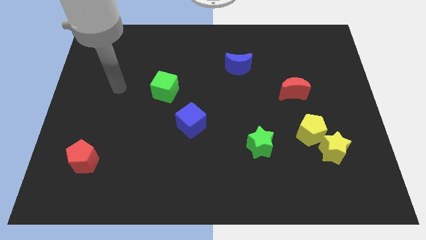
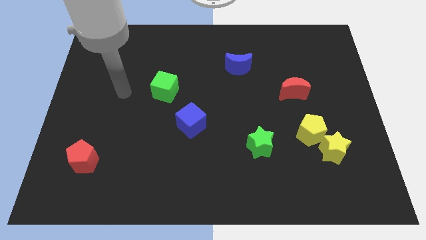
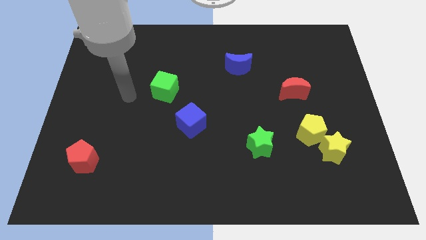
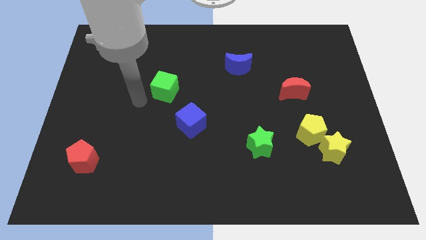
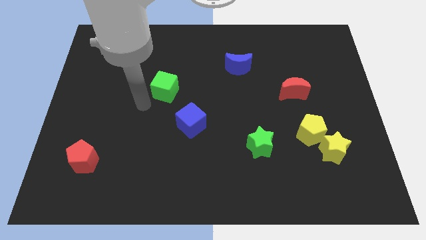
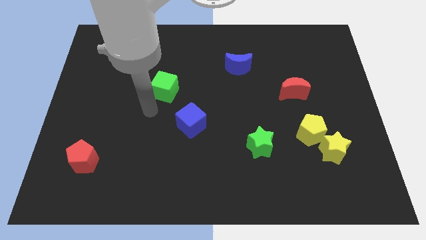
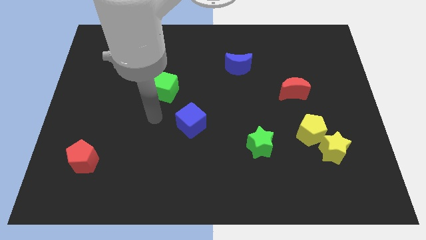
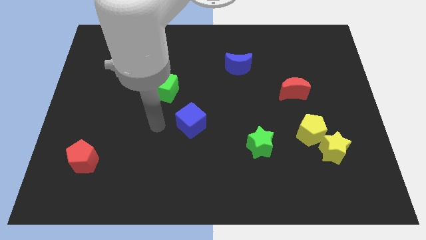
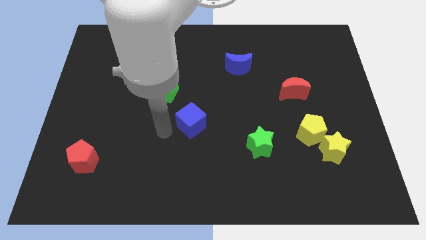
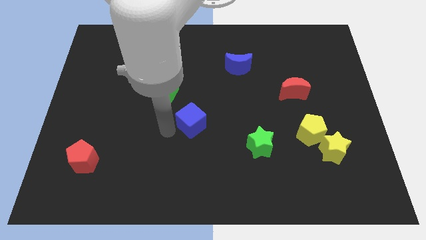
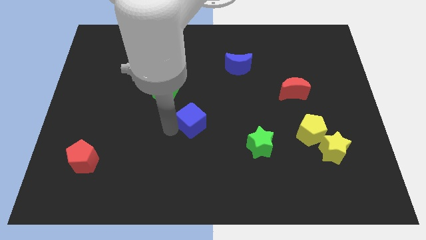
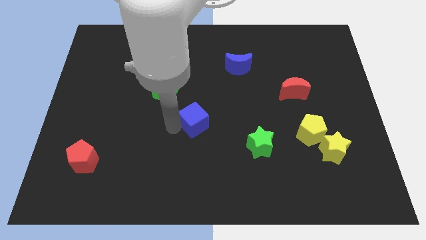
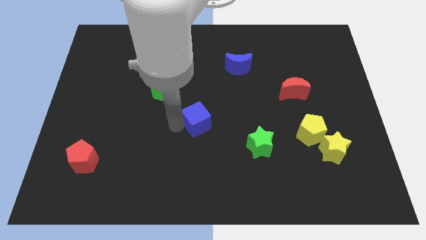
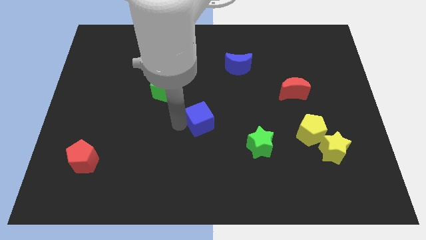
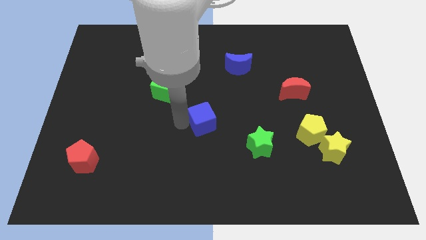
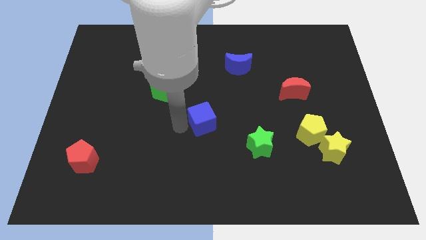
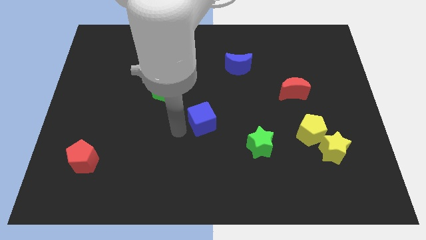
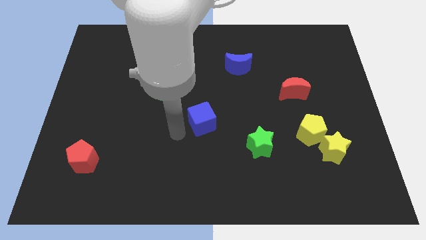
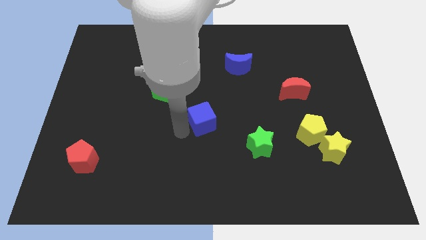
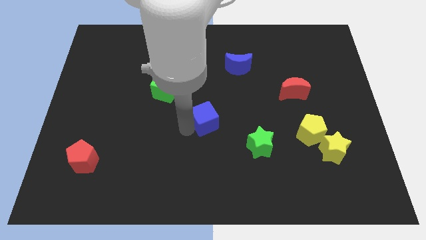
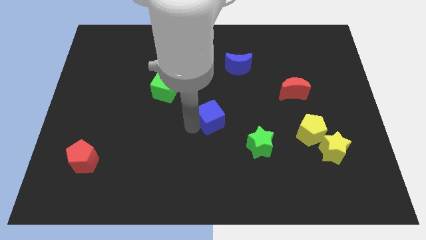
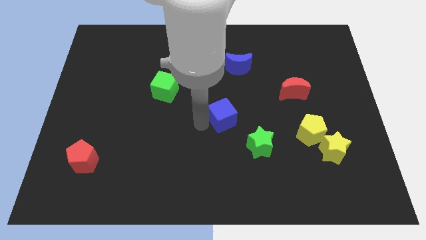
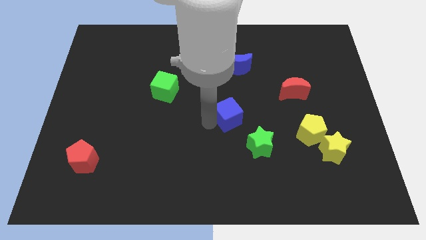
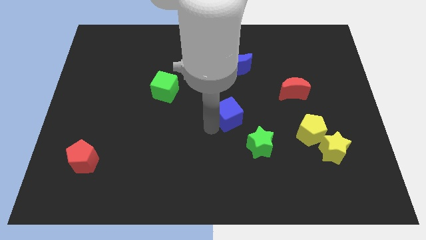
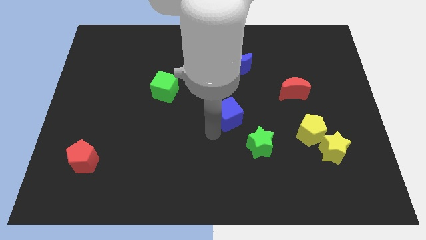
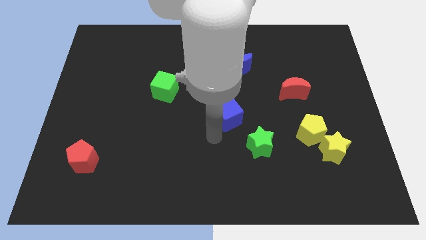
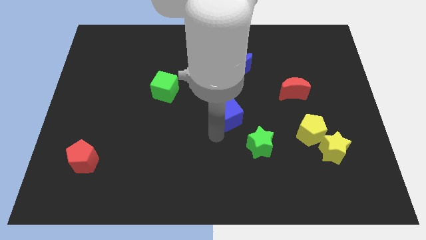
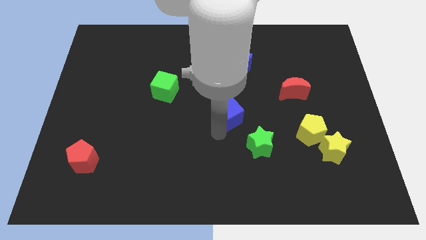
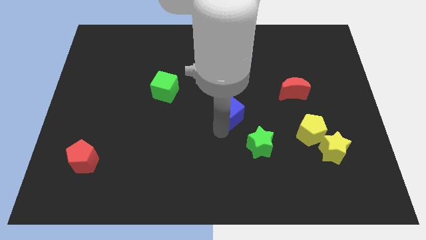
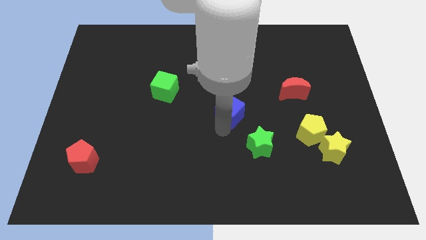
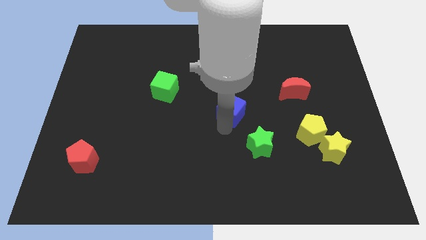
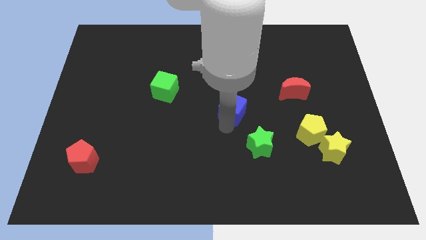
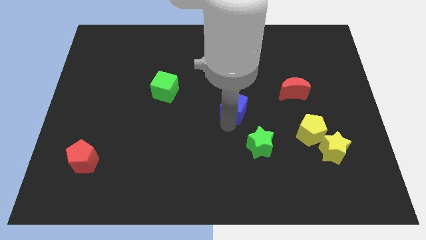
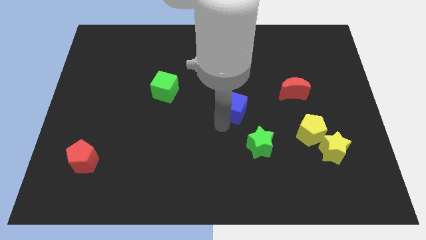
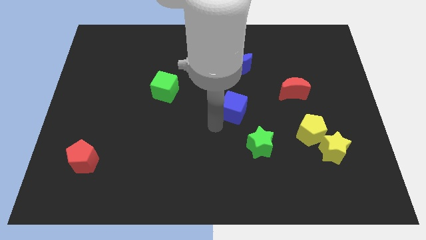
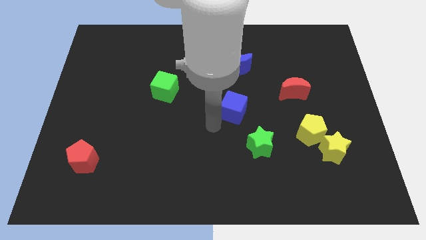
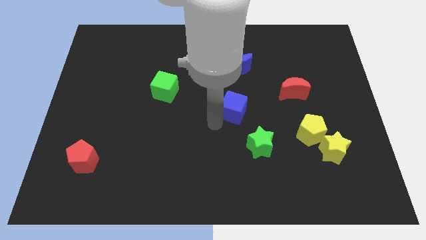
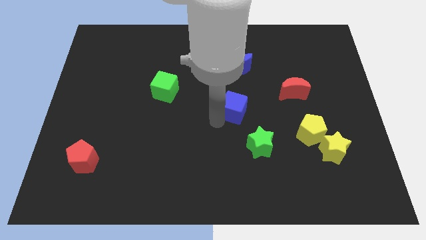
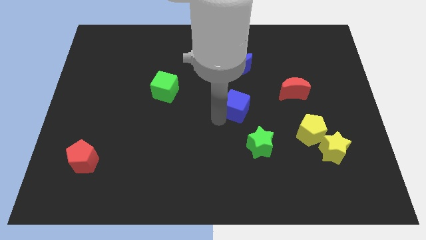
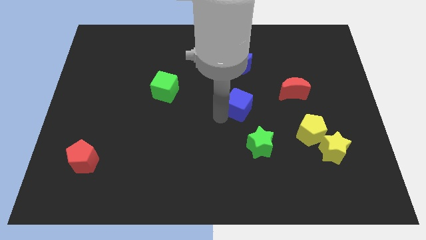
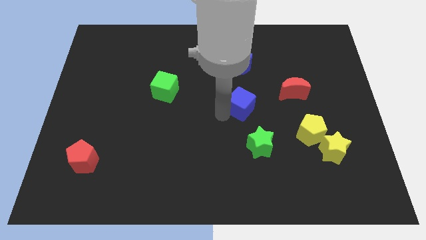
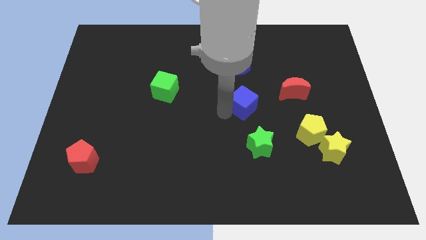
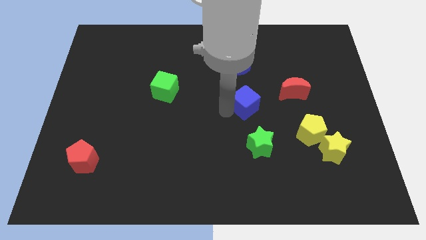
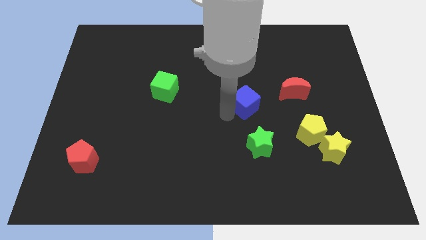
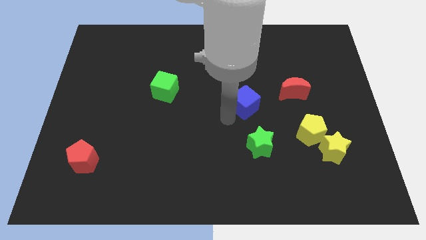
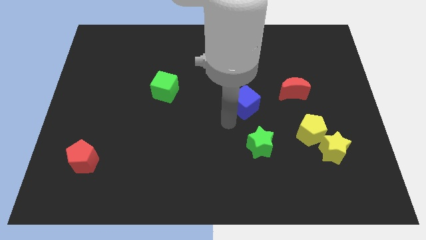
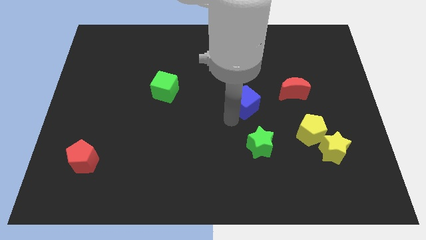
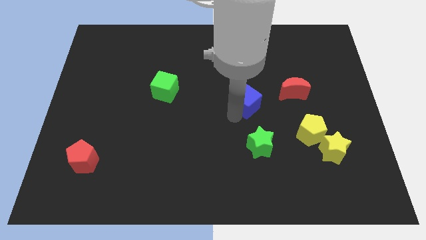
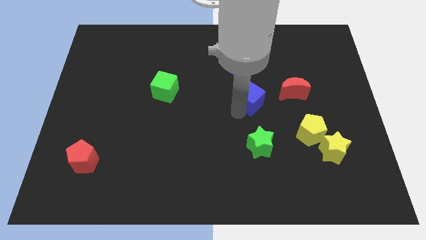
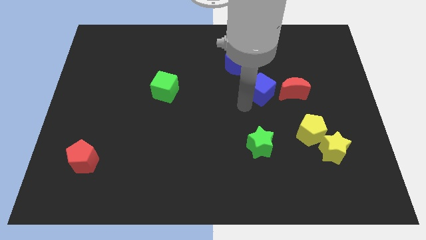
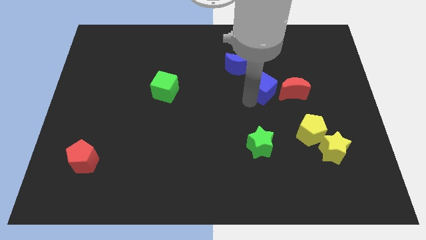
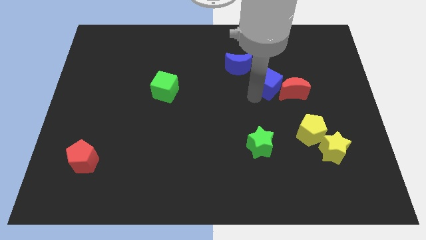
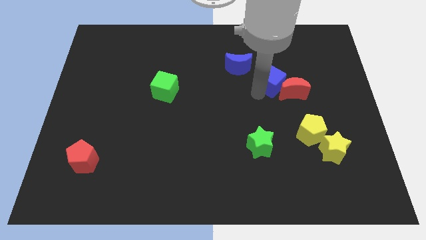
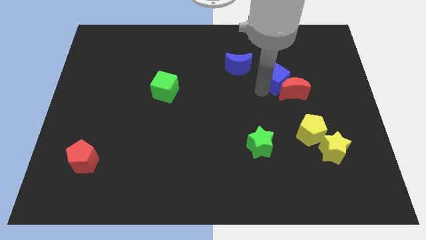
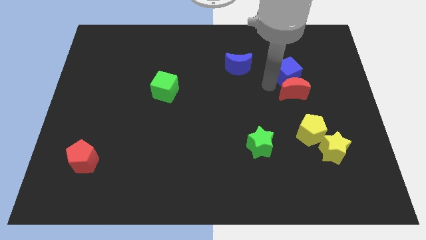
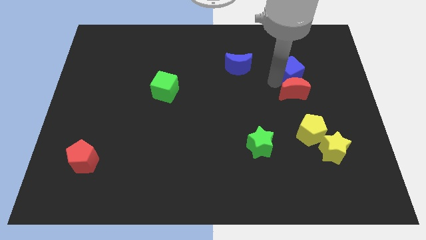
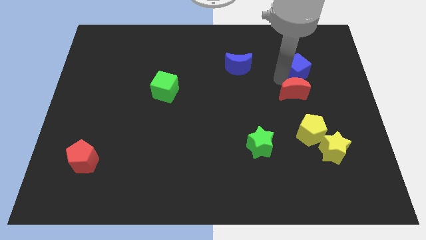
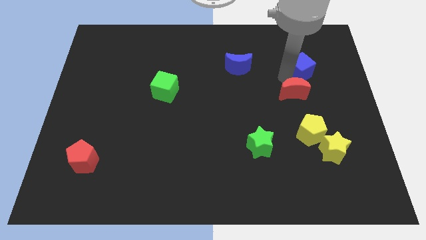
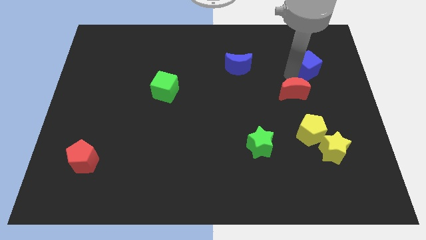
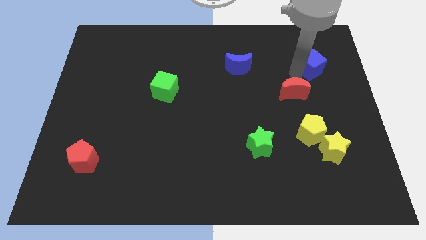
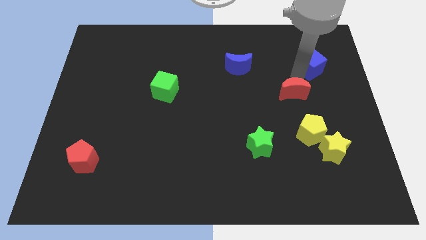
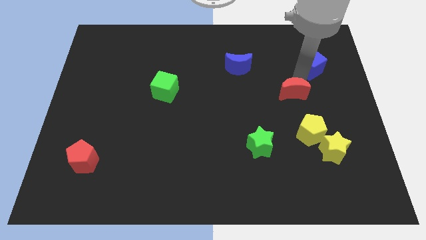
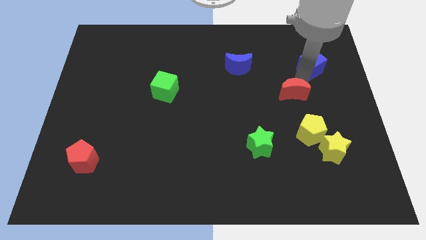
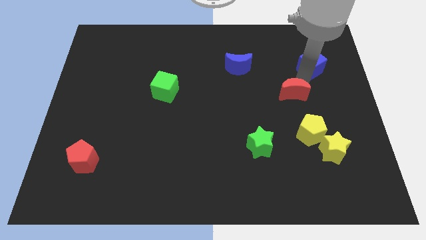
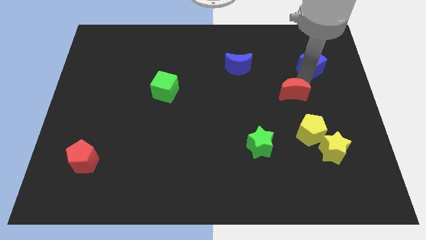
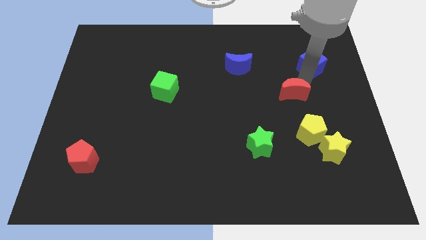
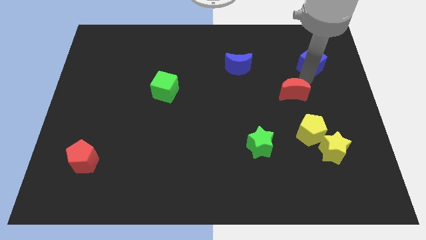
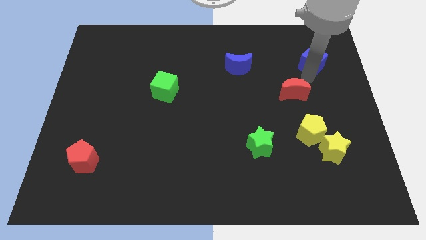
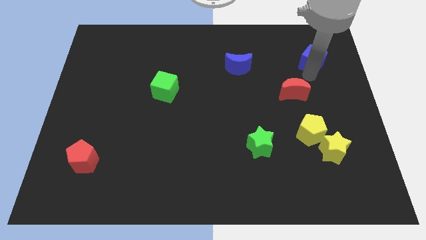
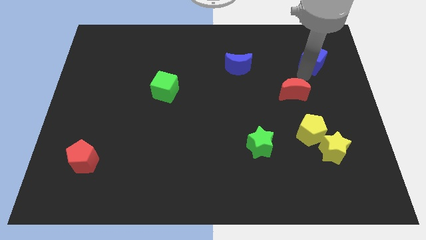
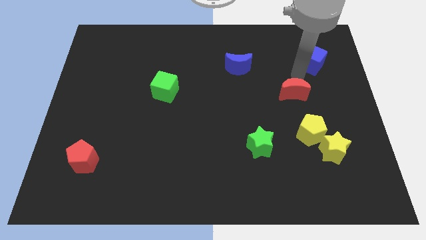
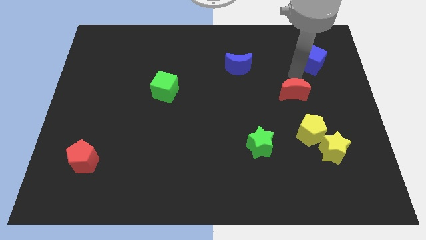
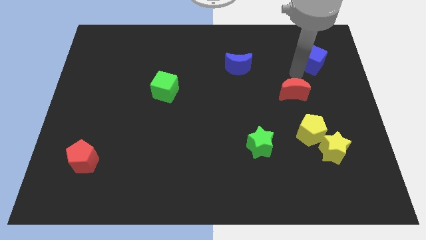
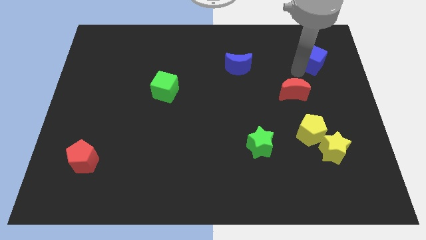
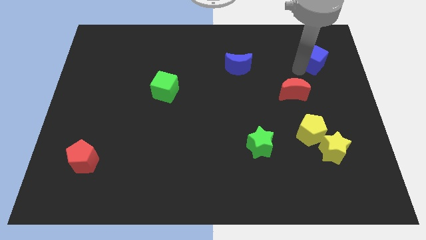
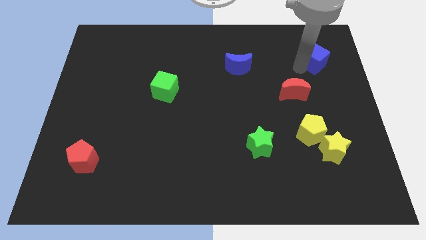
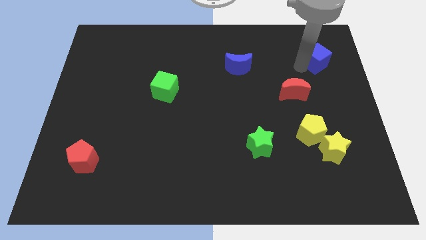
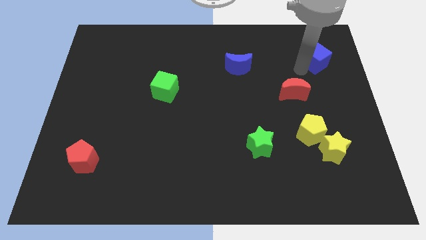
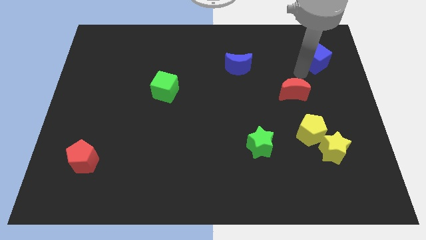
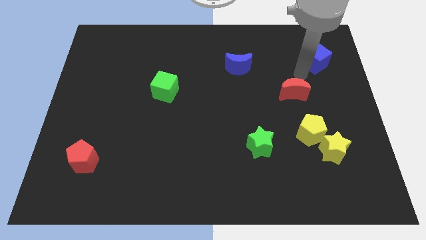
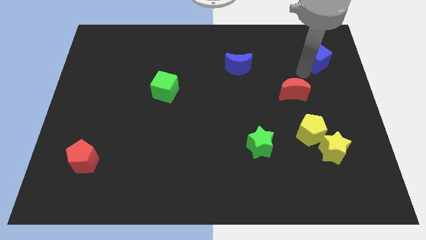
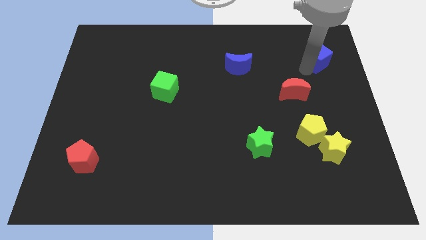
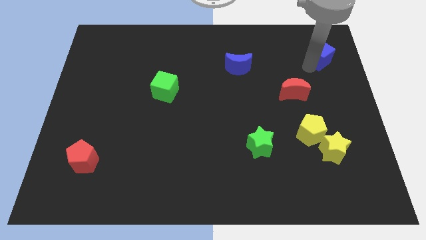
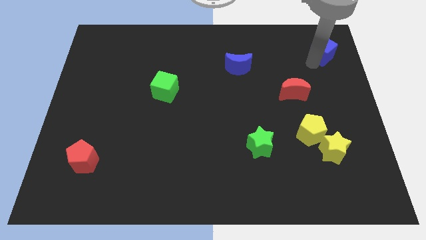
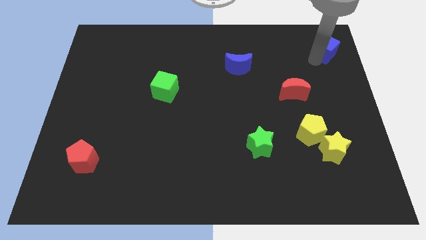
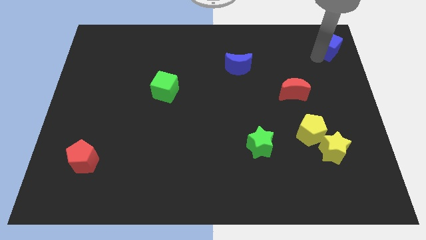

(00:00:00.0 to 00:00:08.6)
slide the blue cube to the top right of the board
